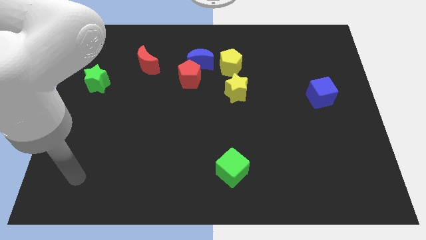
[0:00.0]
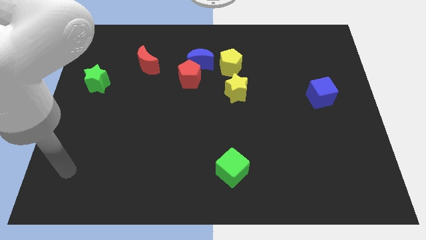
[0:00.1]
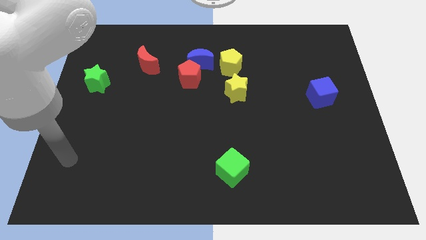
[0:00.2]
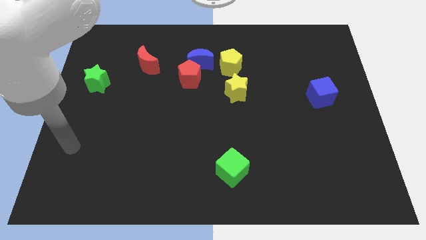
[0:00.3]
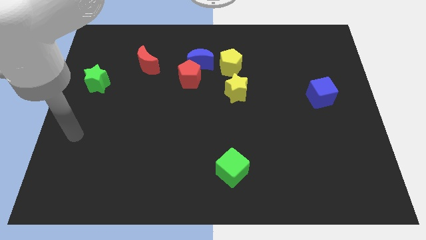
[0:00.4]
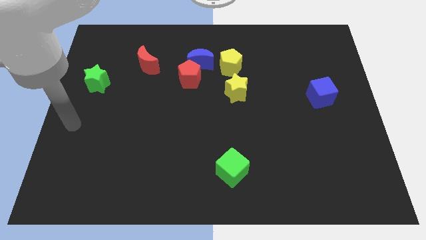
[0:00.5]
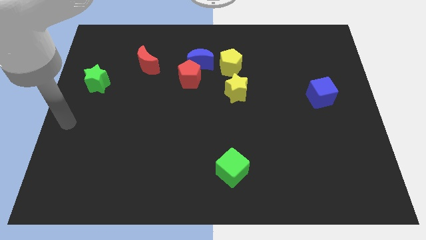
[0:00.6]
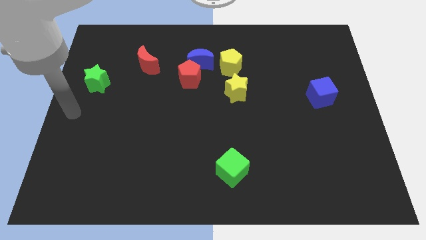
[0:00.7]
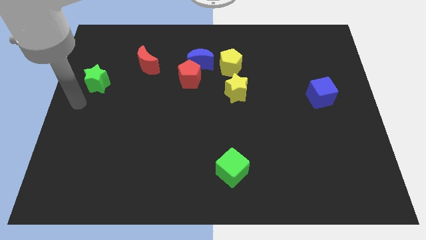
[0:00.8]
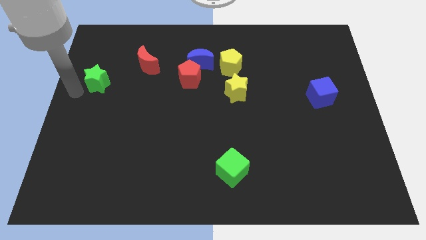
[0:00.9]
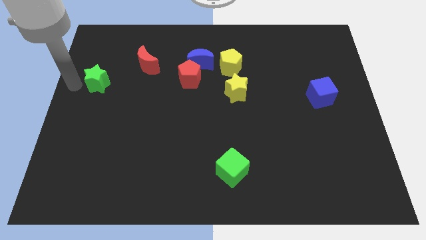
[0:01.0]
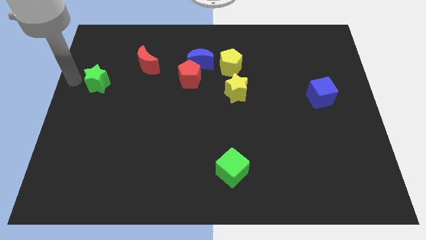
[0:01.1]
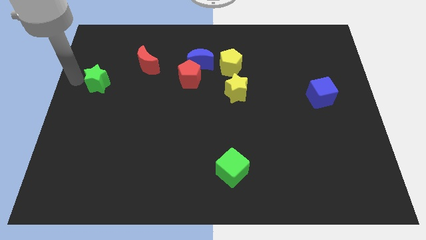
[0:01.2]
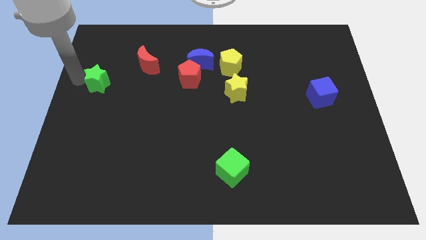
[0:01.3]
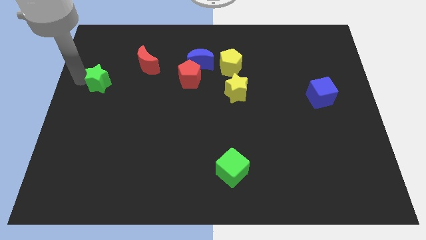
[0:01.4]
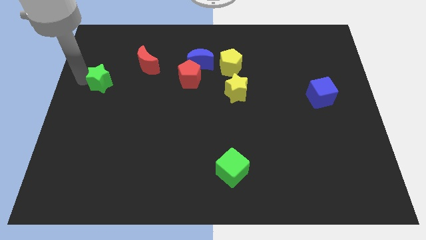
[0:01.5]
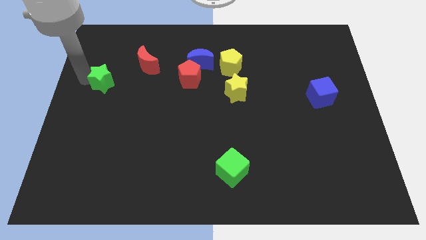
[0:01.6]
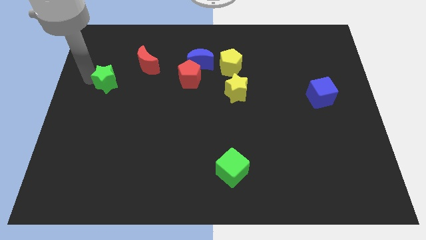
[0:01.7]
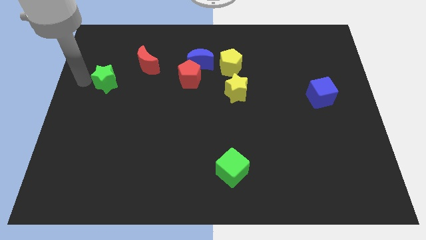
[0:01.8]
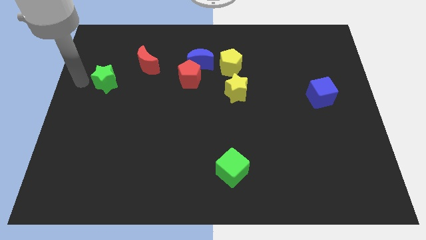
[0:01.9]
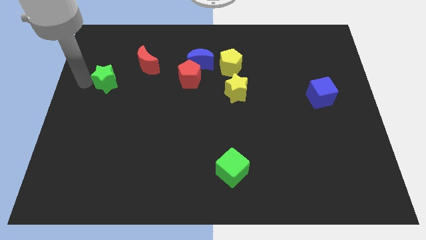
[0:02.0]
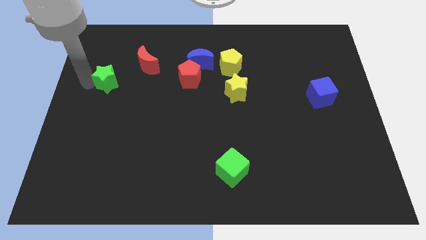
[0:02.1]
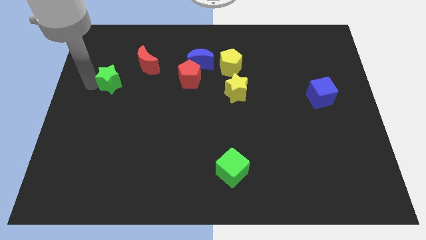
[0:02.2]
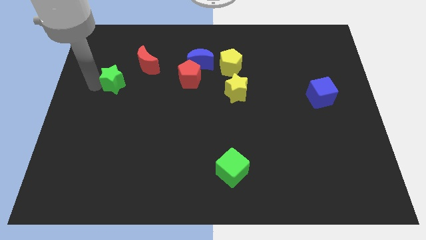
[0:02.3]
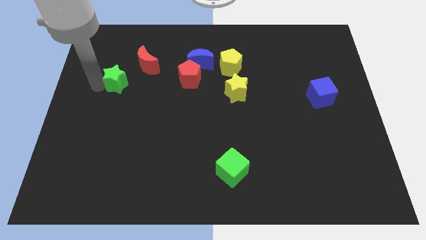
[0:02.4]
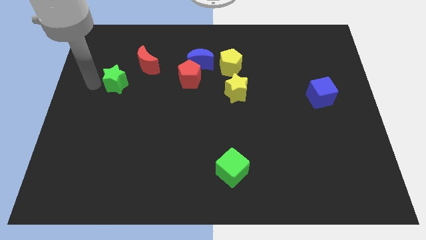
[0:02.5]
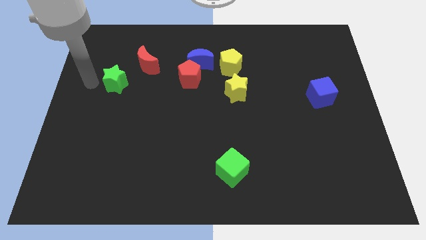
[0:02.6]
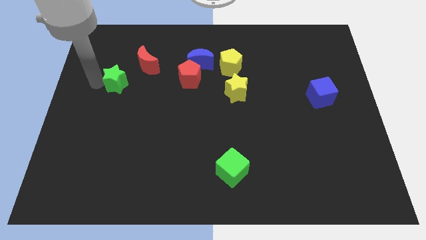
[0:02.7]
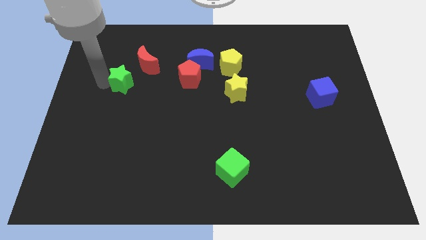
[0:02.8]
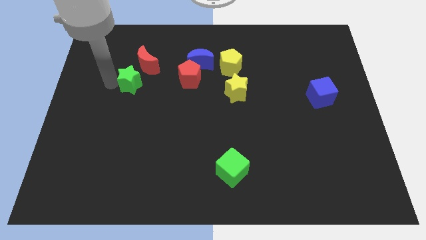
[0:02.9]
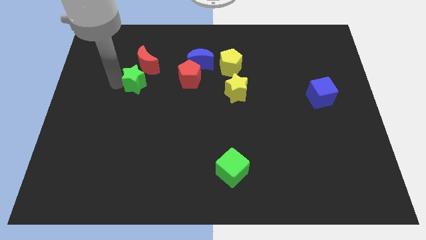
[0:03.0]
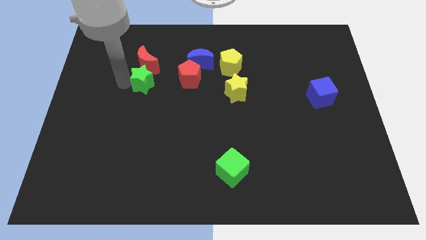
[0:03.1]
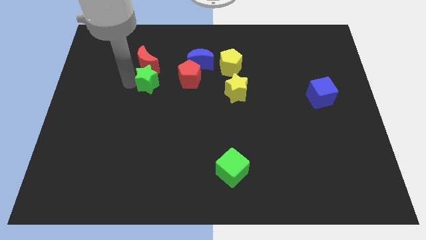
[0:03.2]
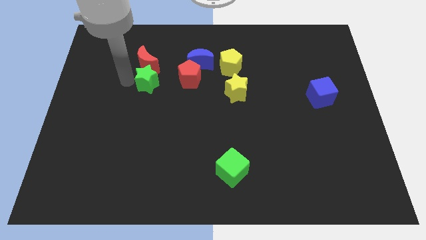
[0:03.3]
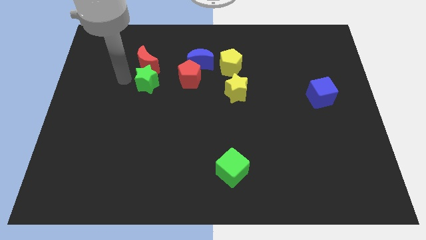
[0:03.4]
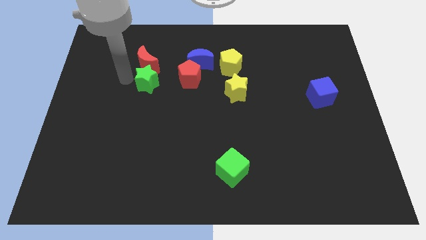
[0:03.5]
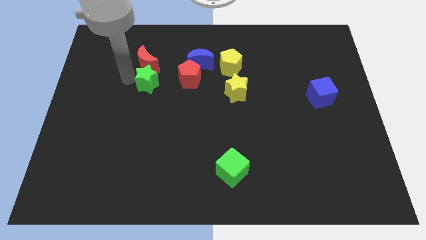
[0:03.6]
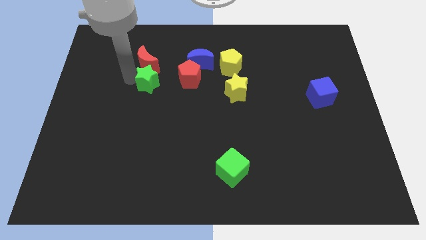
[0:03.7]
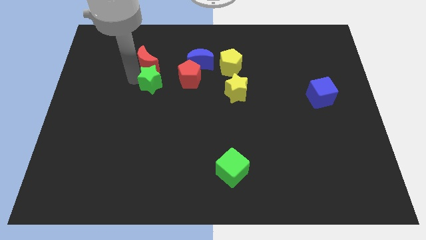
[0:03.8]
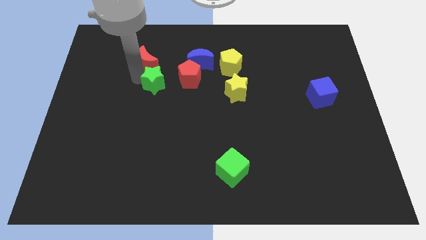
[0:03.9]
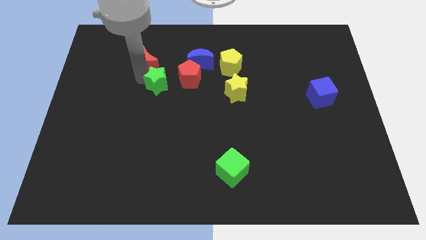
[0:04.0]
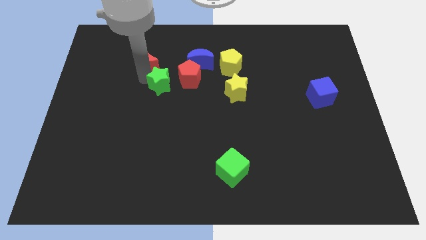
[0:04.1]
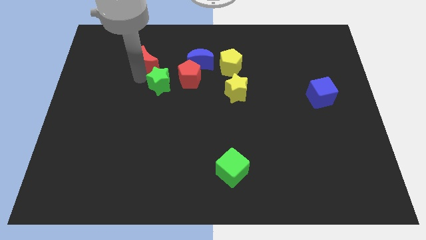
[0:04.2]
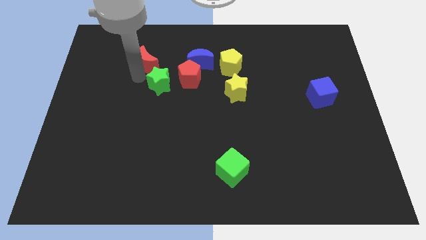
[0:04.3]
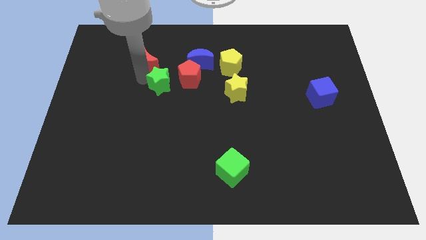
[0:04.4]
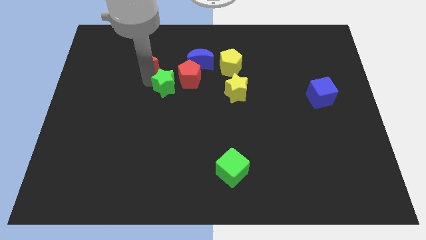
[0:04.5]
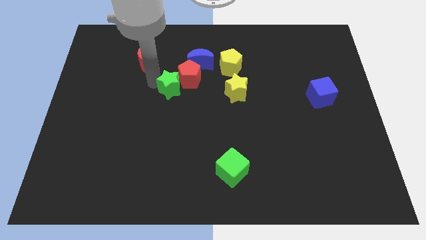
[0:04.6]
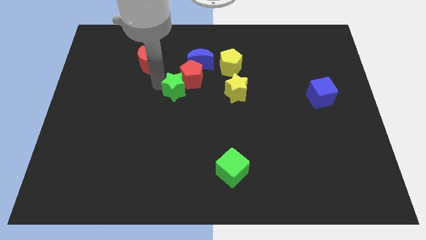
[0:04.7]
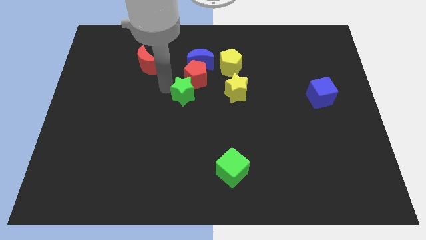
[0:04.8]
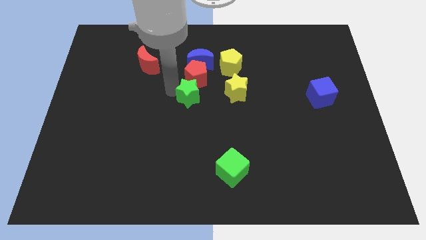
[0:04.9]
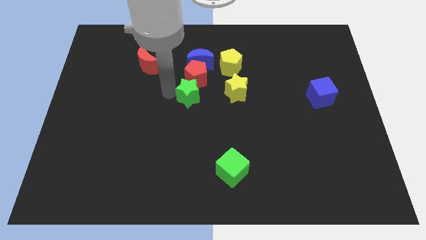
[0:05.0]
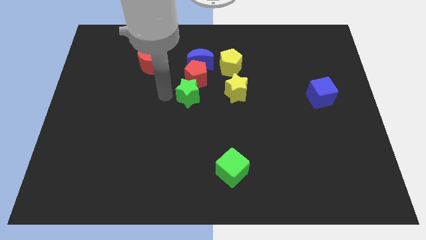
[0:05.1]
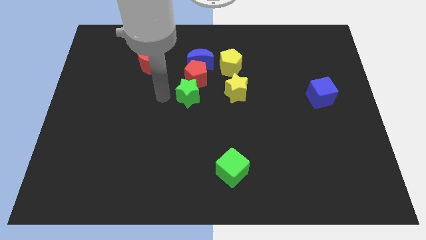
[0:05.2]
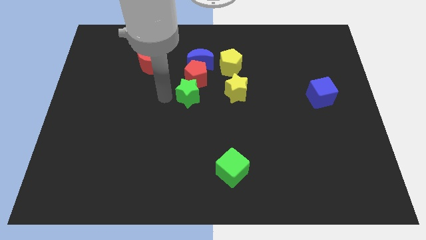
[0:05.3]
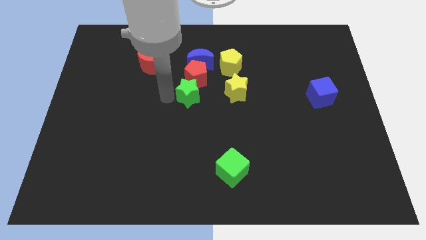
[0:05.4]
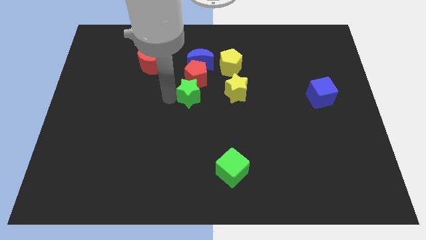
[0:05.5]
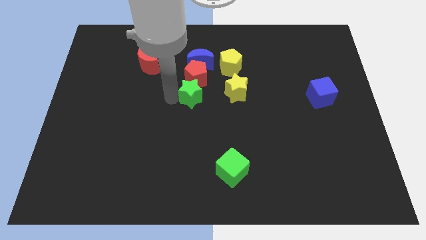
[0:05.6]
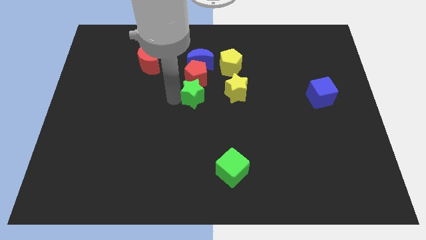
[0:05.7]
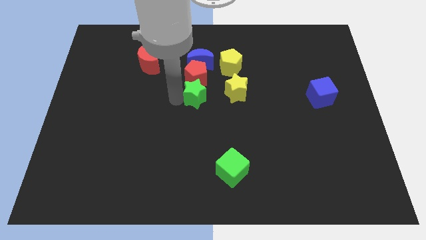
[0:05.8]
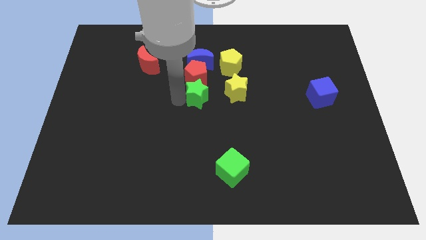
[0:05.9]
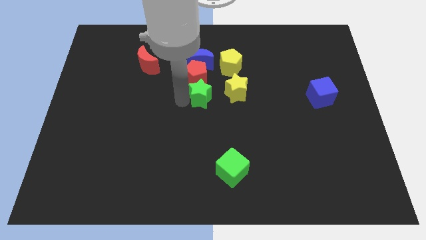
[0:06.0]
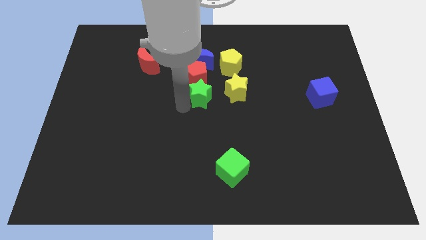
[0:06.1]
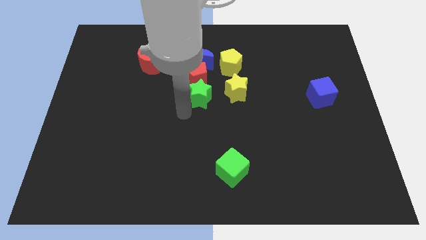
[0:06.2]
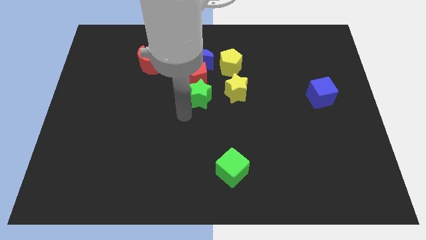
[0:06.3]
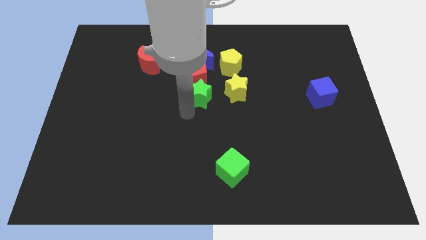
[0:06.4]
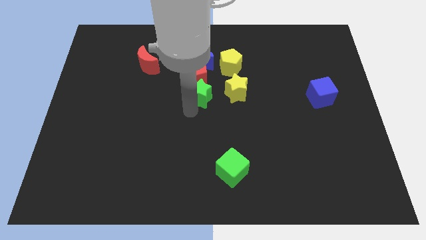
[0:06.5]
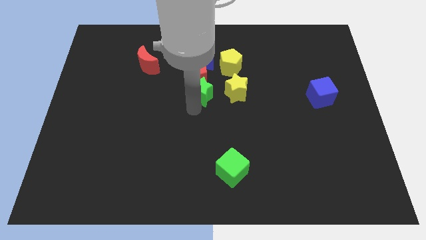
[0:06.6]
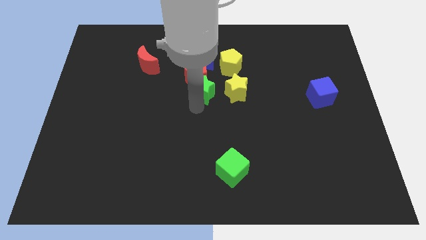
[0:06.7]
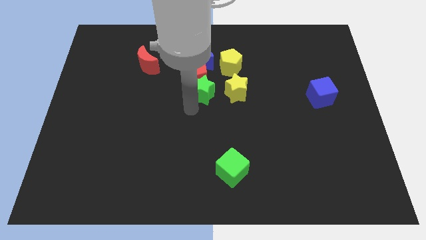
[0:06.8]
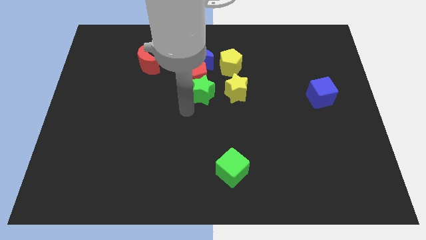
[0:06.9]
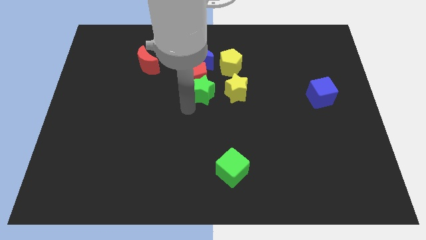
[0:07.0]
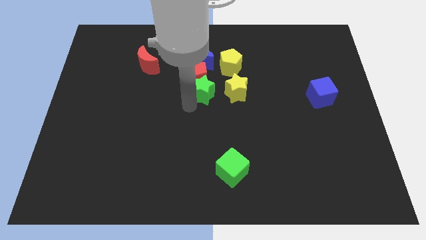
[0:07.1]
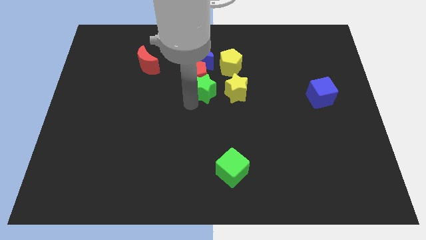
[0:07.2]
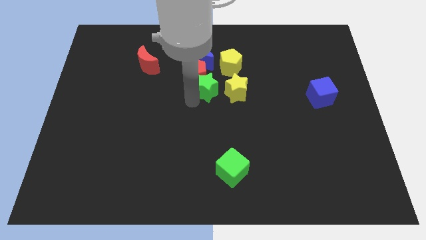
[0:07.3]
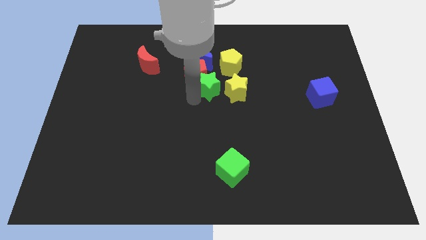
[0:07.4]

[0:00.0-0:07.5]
put the green star diagonally down and to the right of the blue moon

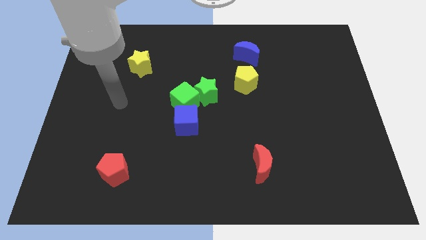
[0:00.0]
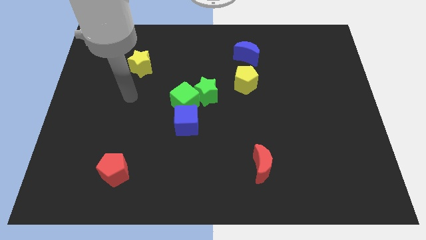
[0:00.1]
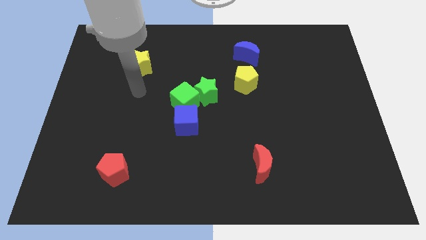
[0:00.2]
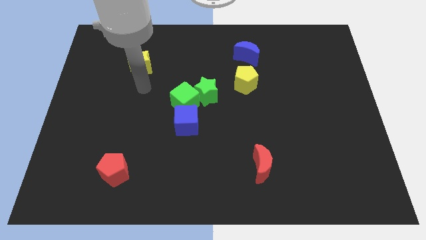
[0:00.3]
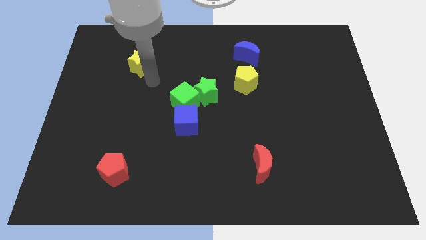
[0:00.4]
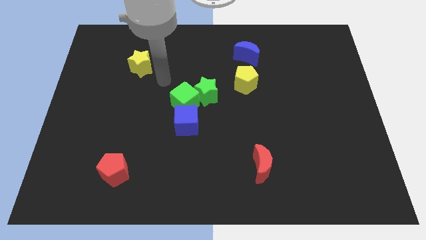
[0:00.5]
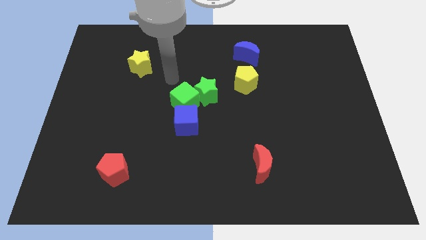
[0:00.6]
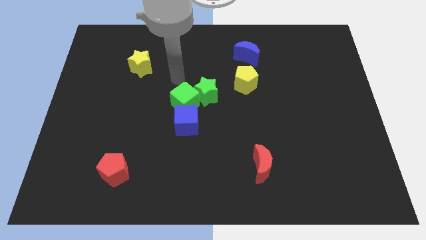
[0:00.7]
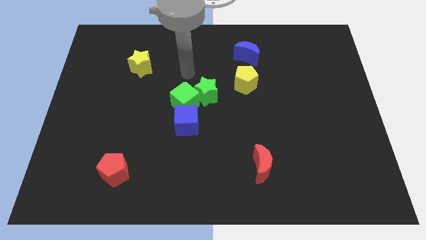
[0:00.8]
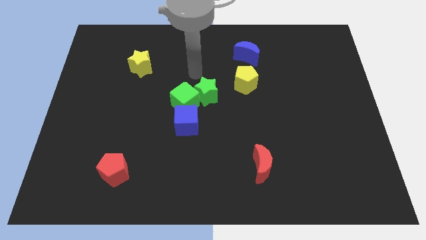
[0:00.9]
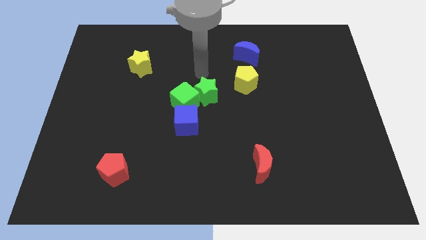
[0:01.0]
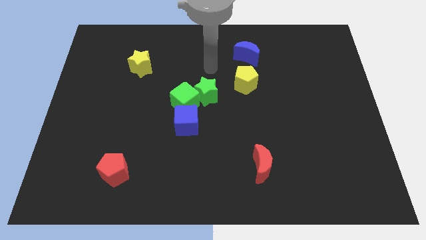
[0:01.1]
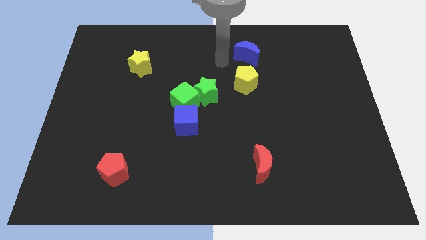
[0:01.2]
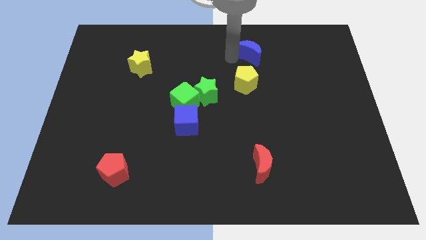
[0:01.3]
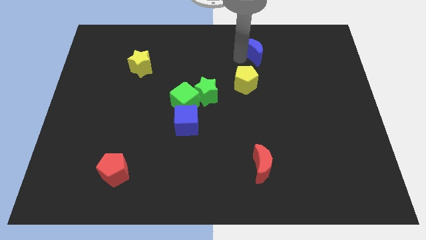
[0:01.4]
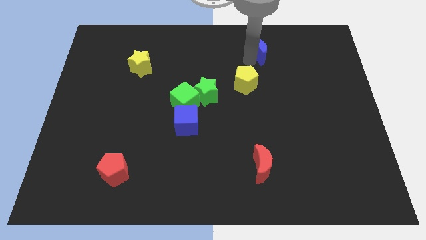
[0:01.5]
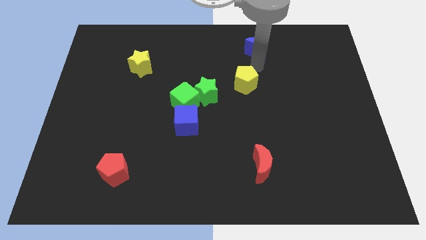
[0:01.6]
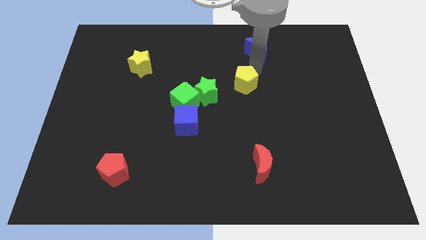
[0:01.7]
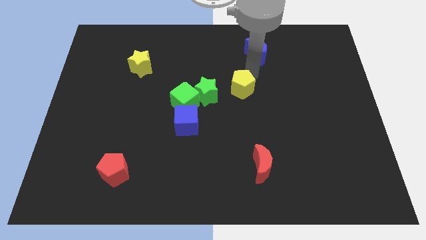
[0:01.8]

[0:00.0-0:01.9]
put the yellow pentagon just right of the green cube
